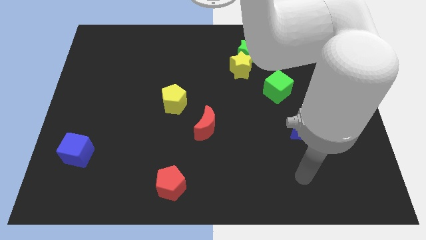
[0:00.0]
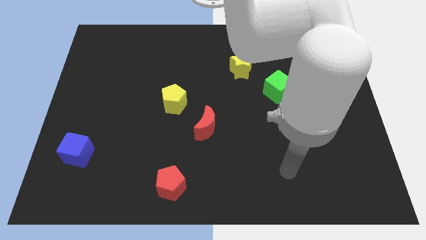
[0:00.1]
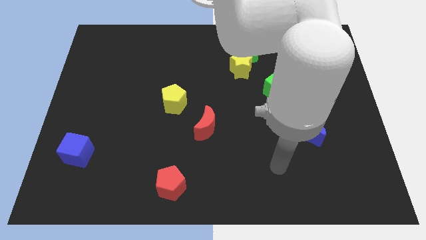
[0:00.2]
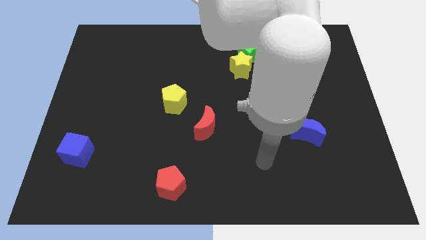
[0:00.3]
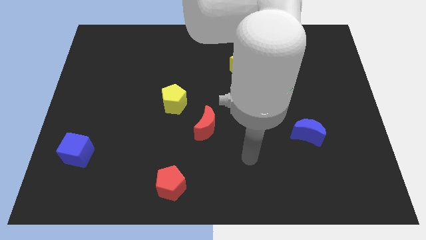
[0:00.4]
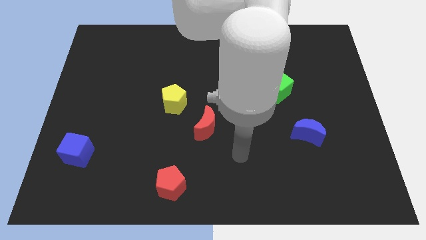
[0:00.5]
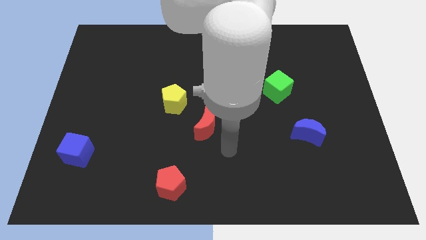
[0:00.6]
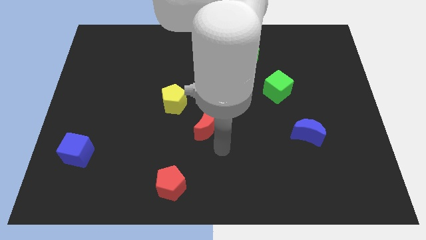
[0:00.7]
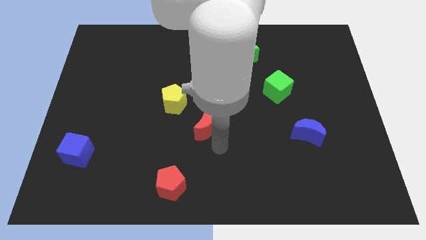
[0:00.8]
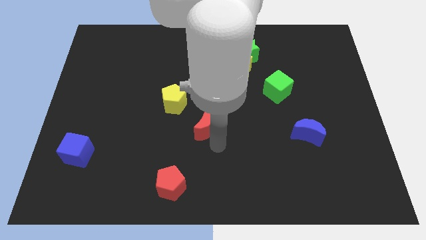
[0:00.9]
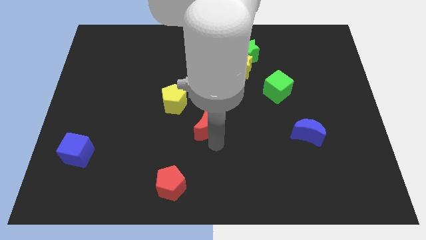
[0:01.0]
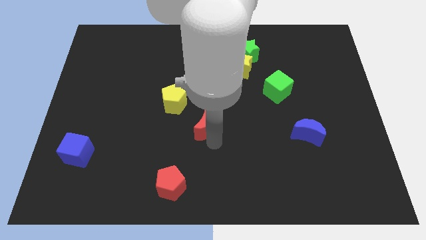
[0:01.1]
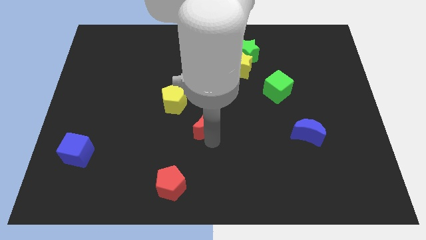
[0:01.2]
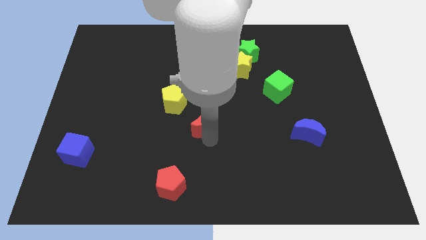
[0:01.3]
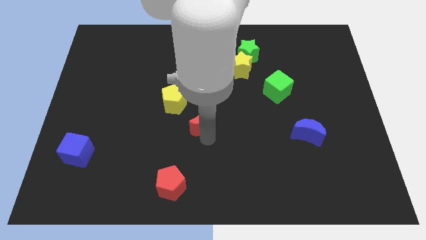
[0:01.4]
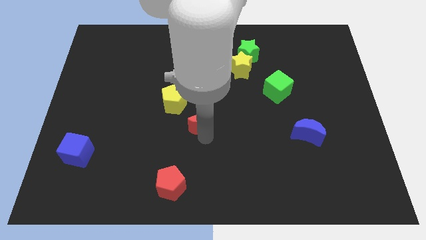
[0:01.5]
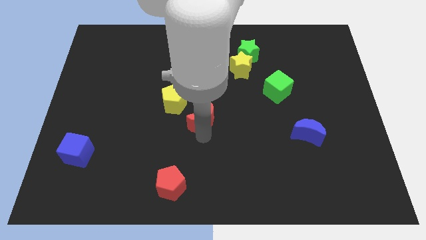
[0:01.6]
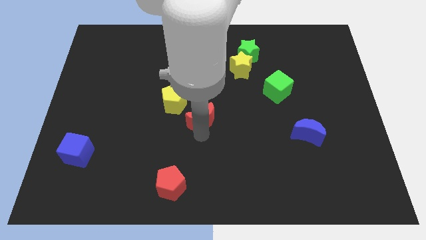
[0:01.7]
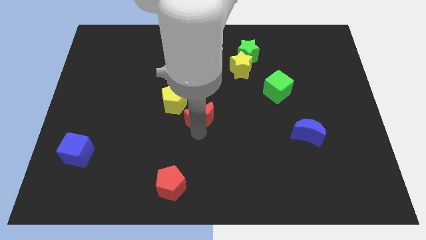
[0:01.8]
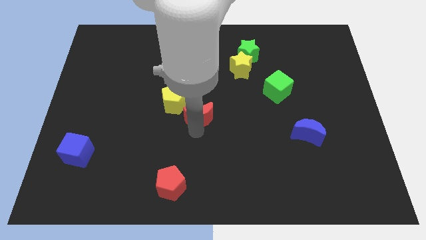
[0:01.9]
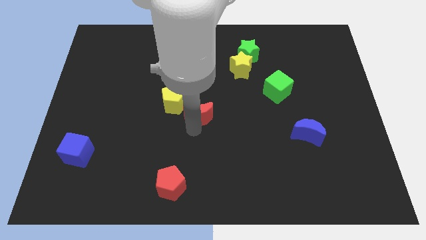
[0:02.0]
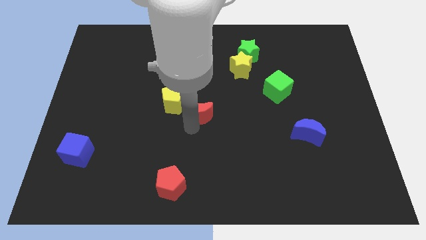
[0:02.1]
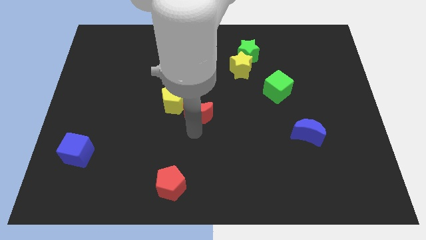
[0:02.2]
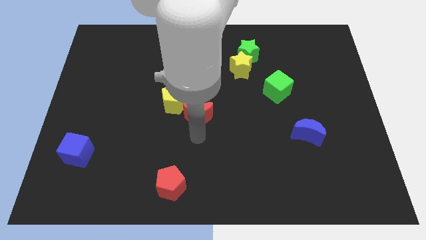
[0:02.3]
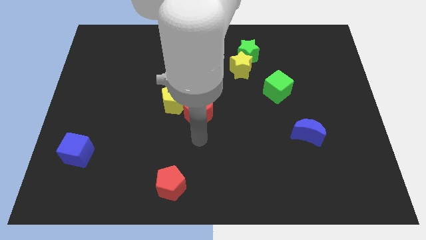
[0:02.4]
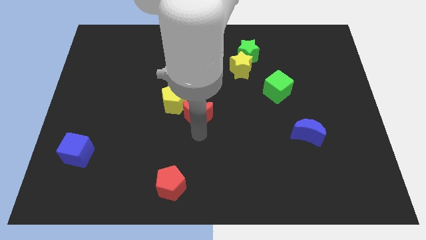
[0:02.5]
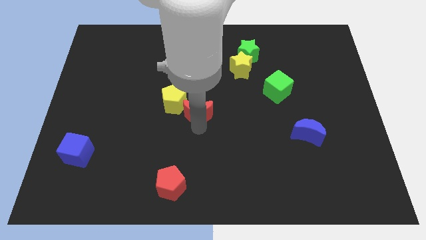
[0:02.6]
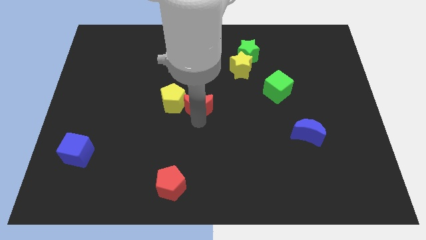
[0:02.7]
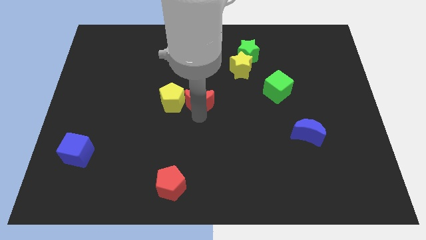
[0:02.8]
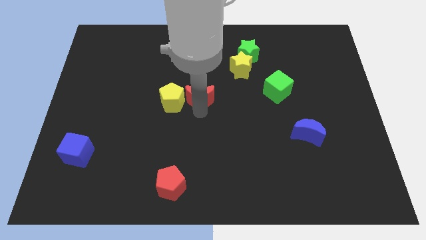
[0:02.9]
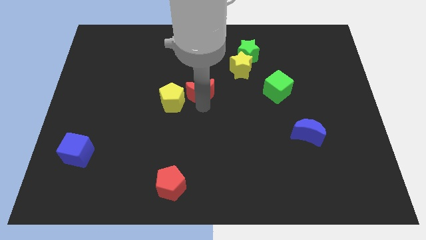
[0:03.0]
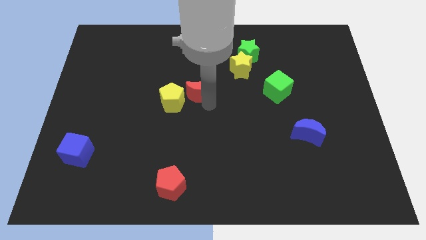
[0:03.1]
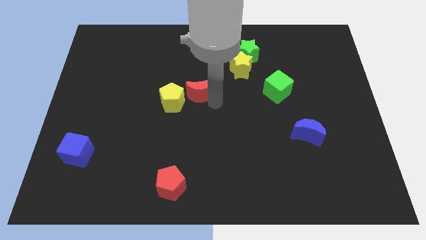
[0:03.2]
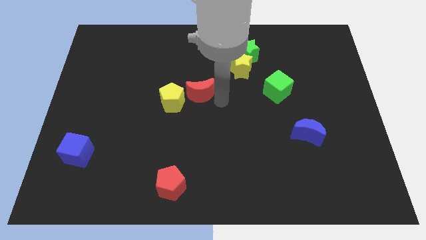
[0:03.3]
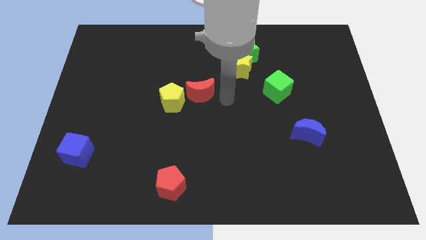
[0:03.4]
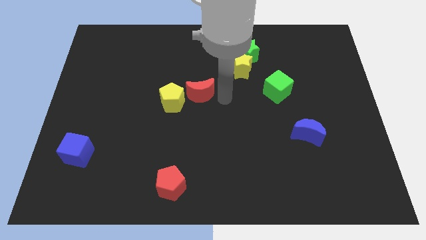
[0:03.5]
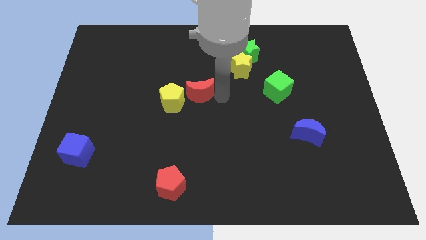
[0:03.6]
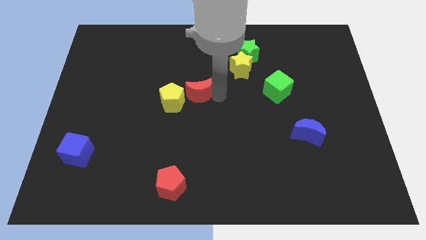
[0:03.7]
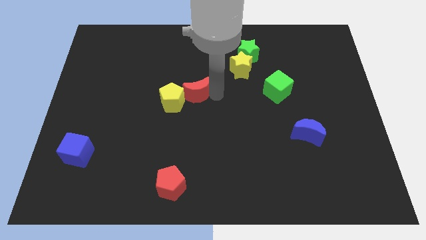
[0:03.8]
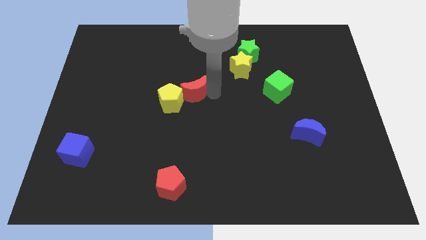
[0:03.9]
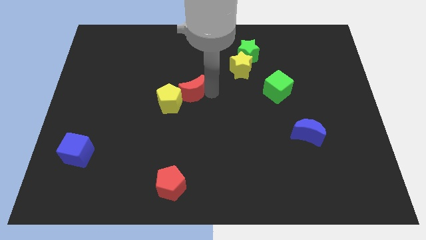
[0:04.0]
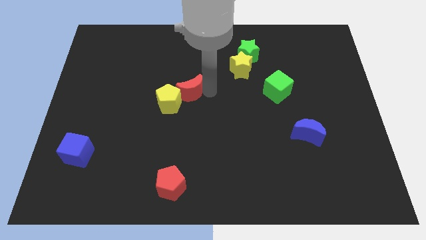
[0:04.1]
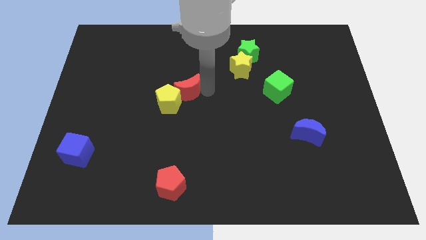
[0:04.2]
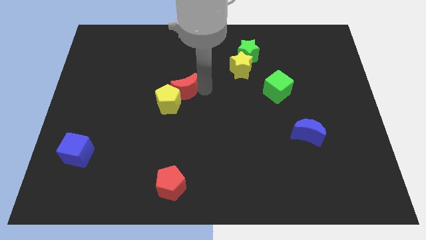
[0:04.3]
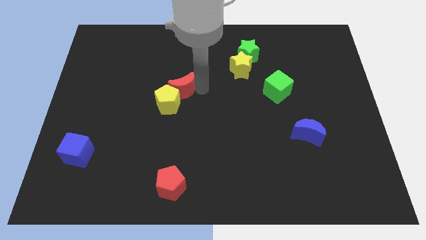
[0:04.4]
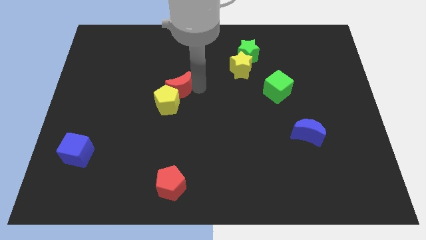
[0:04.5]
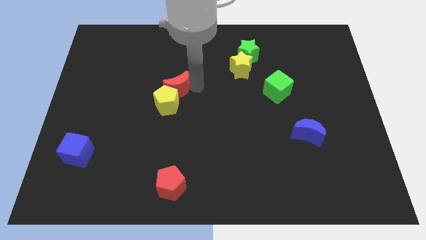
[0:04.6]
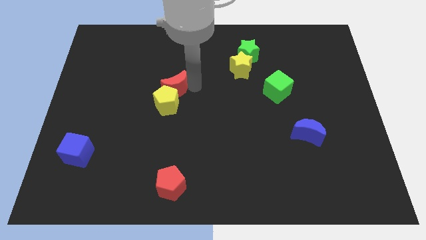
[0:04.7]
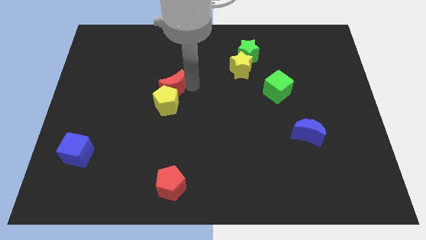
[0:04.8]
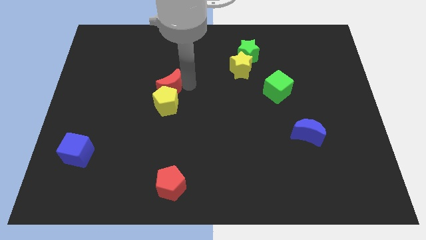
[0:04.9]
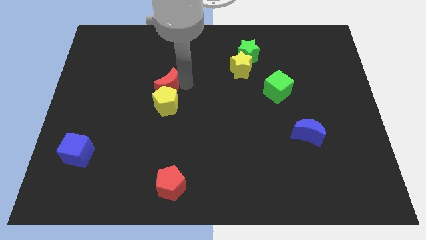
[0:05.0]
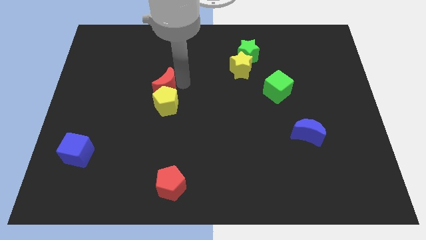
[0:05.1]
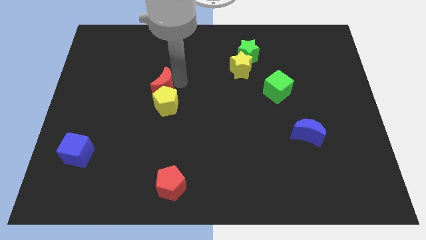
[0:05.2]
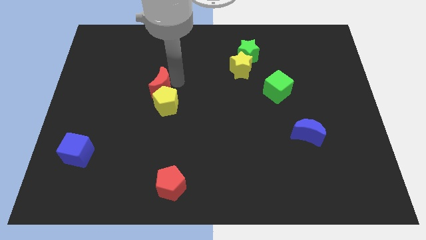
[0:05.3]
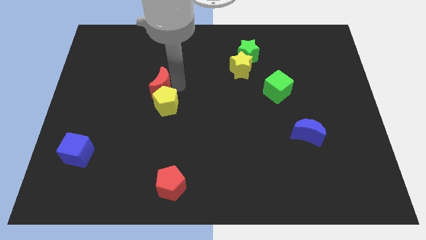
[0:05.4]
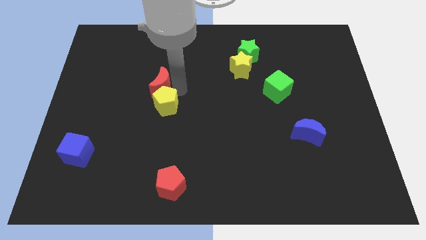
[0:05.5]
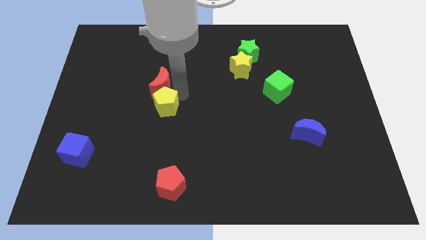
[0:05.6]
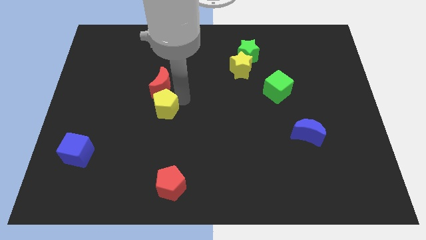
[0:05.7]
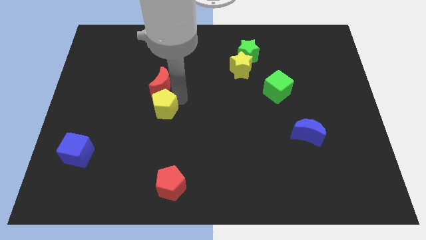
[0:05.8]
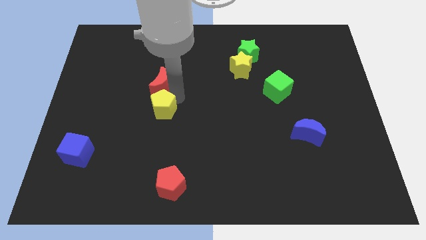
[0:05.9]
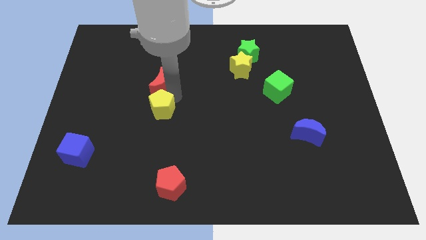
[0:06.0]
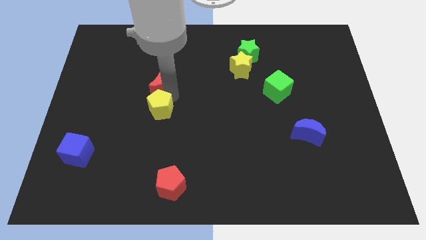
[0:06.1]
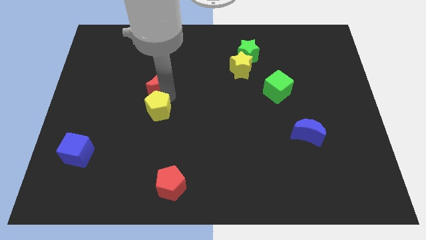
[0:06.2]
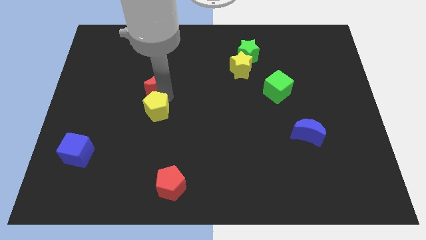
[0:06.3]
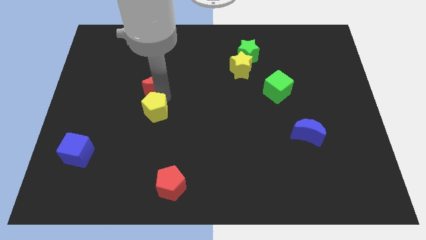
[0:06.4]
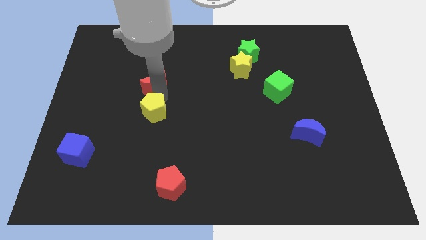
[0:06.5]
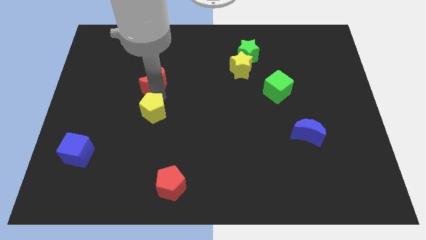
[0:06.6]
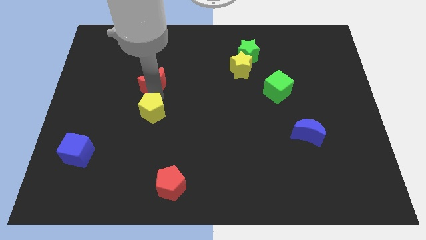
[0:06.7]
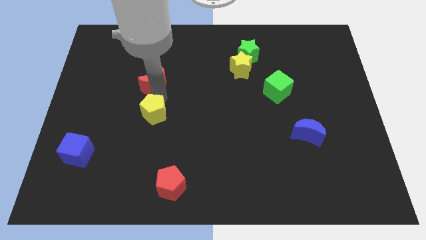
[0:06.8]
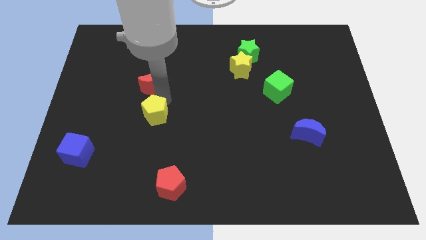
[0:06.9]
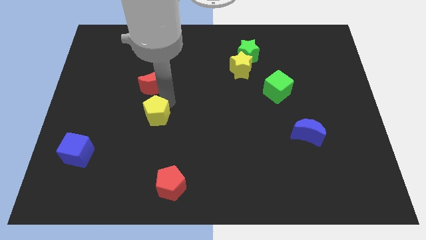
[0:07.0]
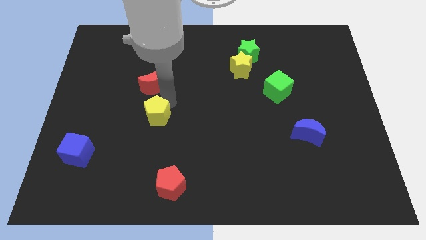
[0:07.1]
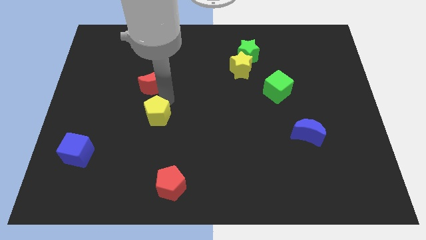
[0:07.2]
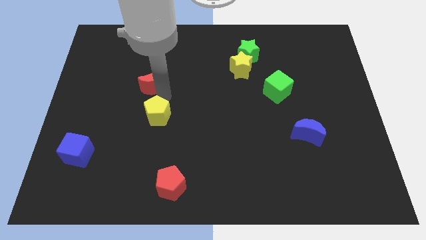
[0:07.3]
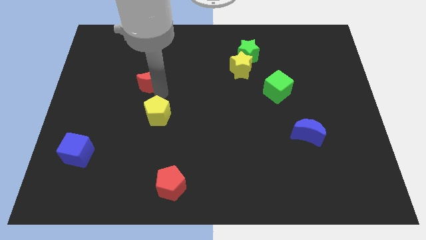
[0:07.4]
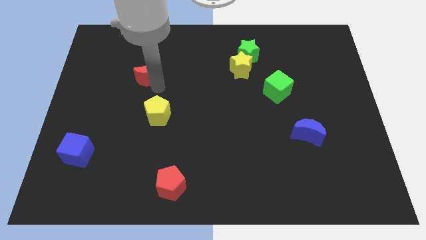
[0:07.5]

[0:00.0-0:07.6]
slide the red moon upwards and left

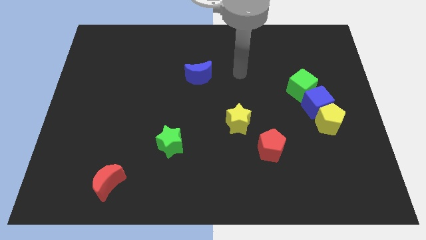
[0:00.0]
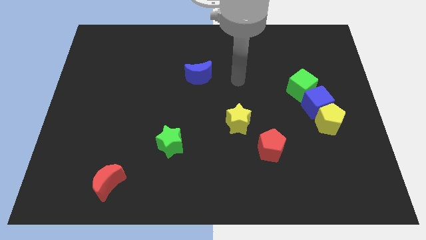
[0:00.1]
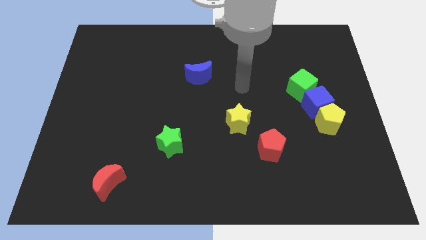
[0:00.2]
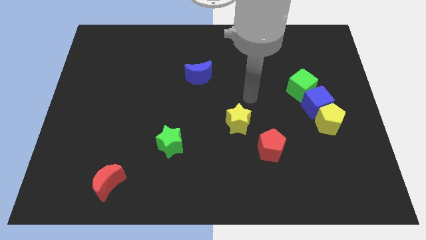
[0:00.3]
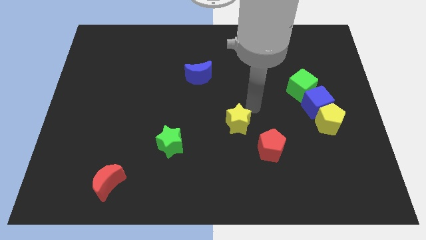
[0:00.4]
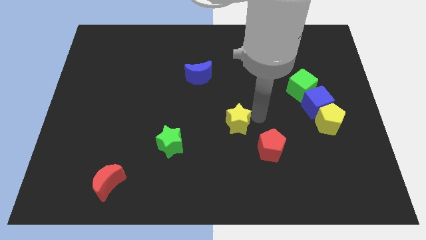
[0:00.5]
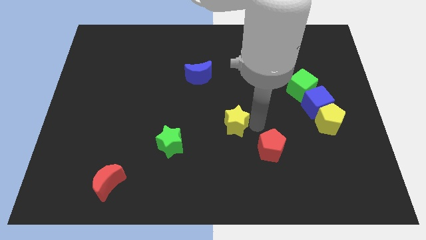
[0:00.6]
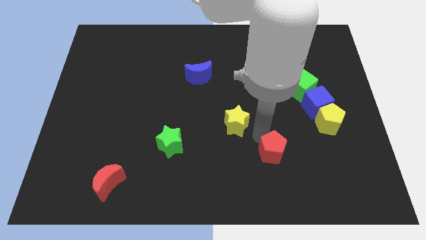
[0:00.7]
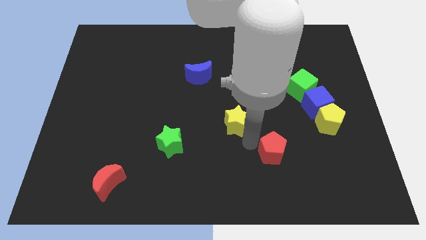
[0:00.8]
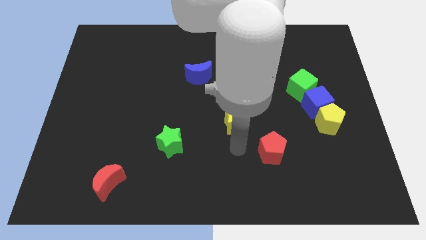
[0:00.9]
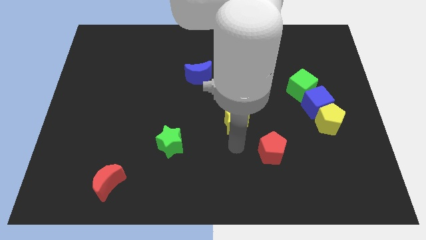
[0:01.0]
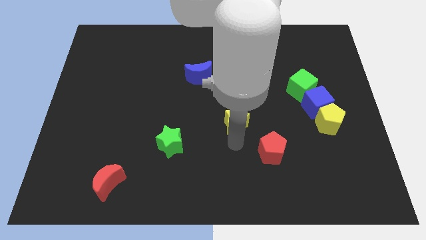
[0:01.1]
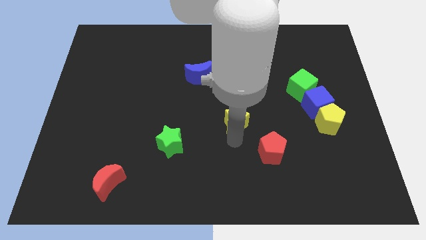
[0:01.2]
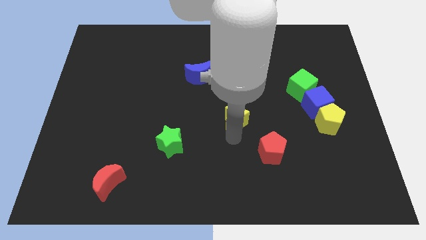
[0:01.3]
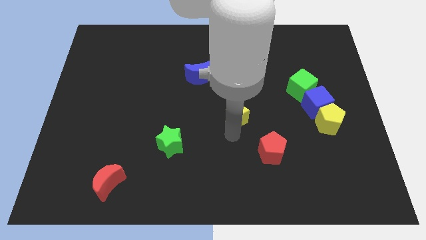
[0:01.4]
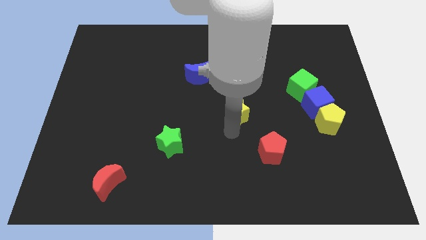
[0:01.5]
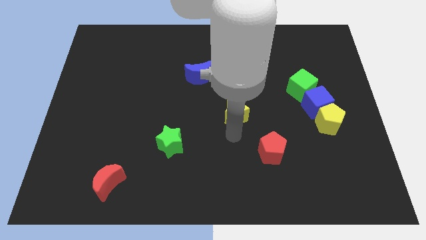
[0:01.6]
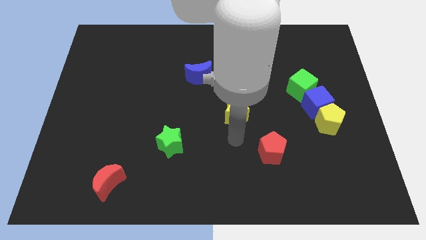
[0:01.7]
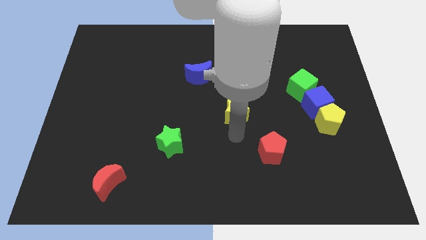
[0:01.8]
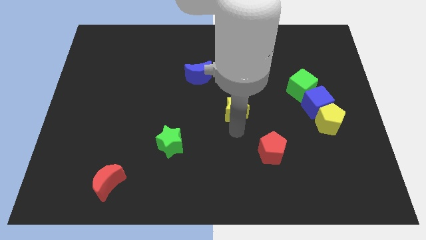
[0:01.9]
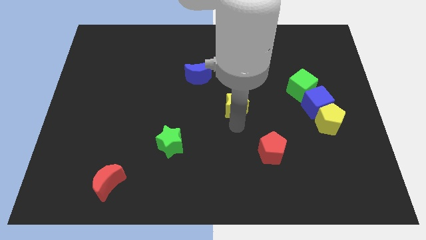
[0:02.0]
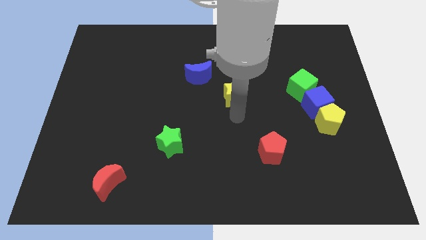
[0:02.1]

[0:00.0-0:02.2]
slightly push the yellow star upwards
